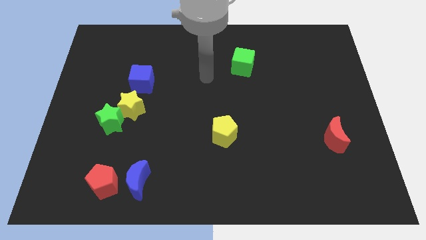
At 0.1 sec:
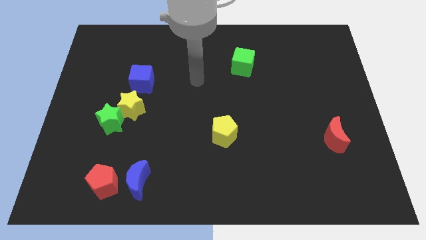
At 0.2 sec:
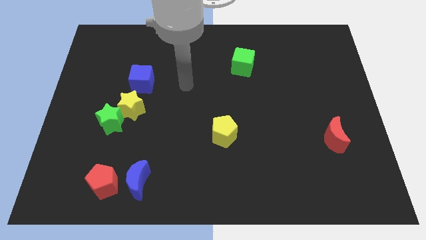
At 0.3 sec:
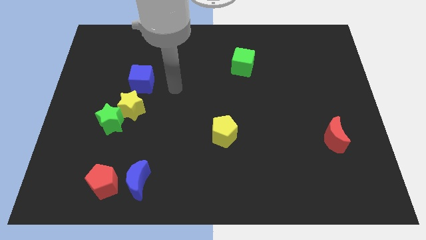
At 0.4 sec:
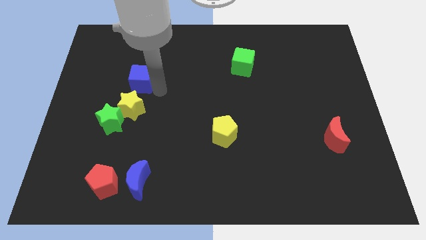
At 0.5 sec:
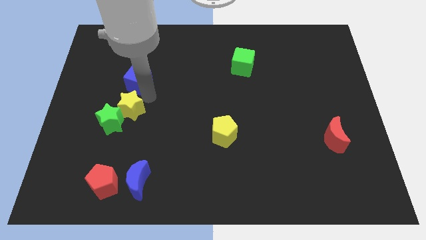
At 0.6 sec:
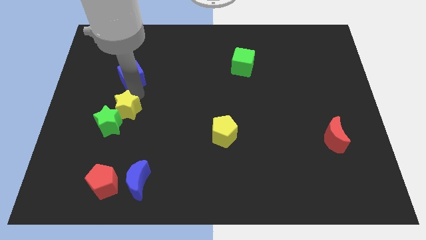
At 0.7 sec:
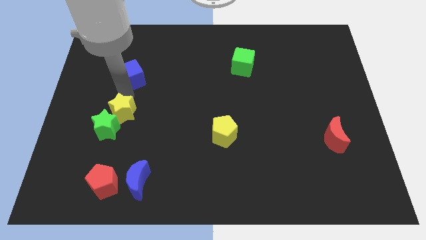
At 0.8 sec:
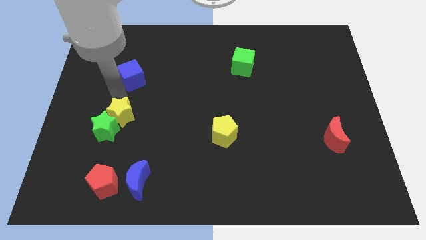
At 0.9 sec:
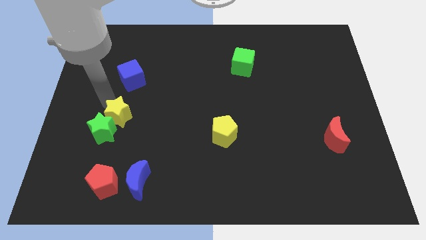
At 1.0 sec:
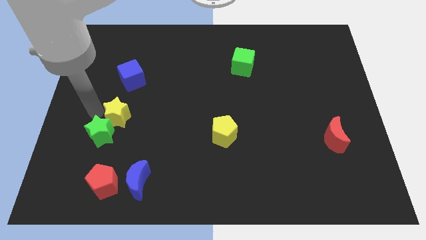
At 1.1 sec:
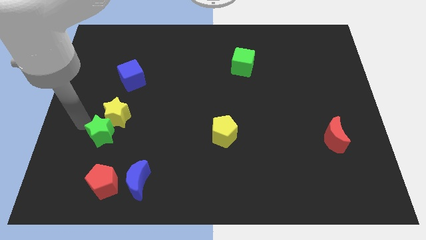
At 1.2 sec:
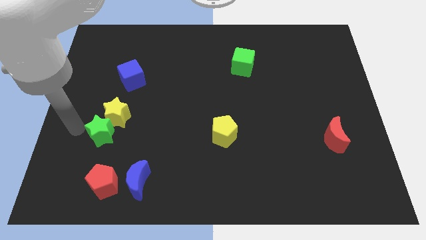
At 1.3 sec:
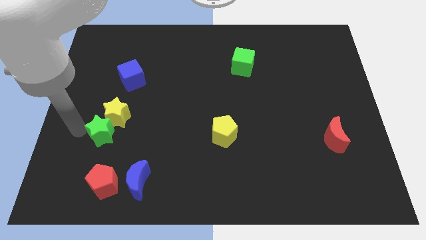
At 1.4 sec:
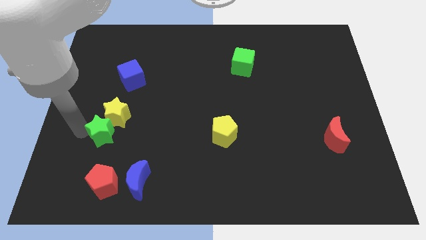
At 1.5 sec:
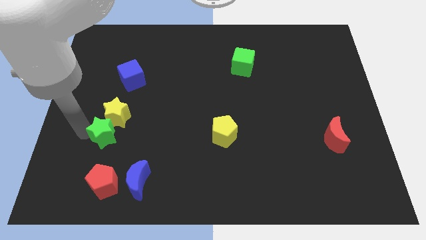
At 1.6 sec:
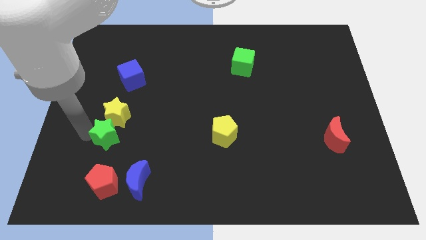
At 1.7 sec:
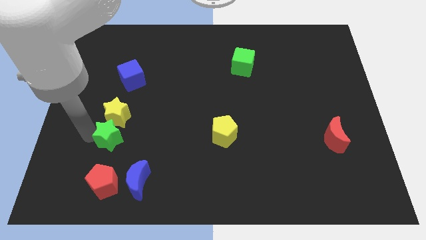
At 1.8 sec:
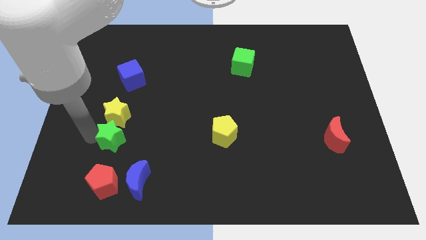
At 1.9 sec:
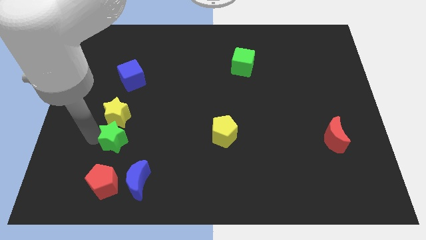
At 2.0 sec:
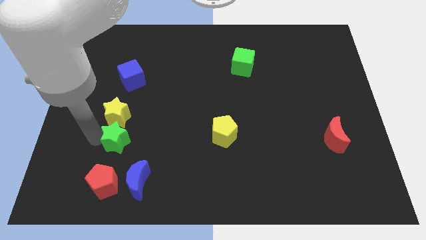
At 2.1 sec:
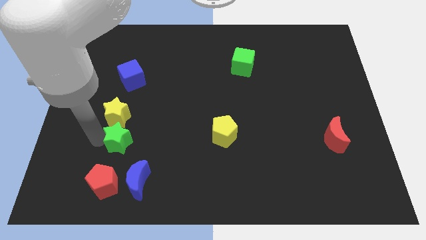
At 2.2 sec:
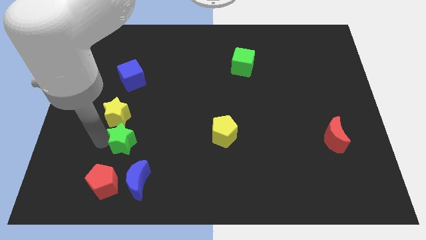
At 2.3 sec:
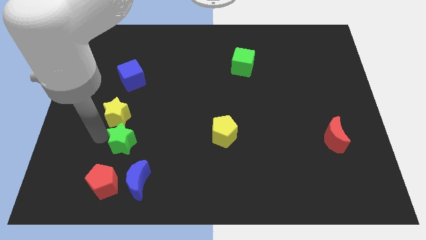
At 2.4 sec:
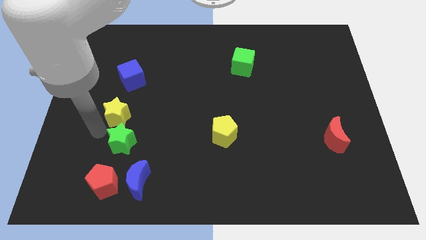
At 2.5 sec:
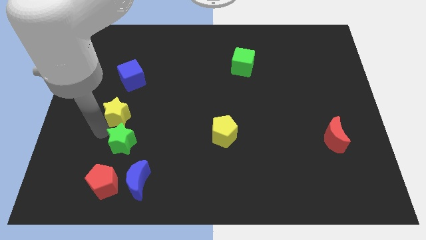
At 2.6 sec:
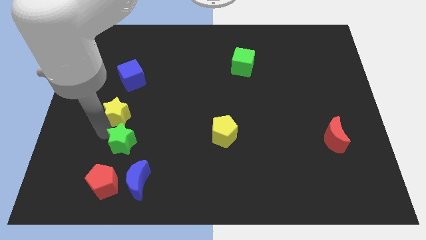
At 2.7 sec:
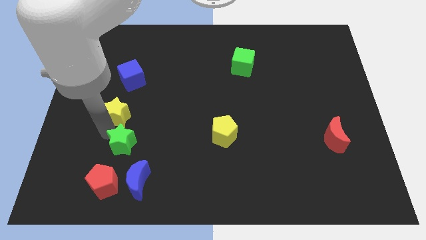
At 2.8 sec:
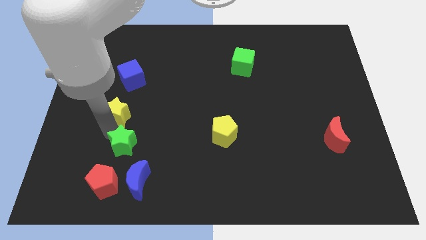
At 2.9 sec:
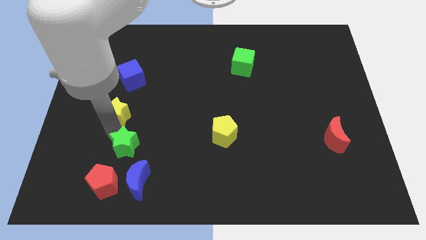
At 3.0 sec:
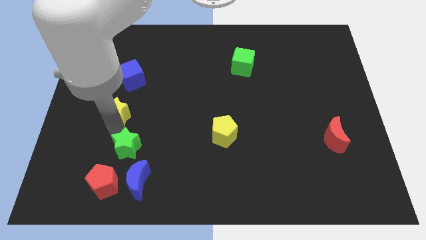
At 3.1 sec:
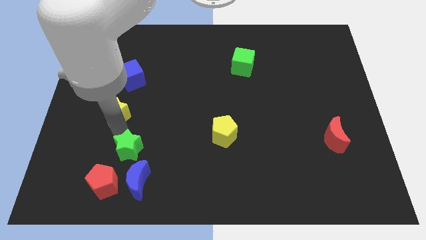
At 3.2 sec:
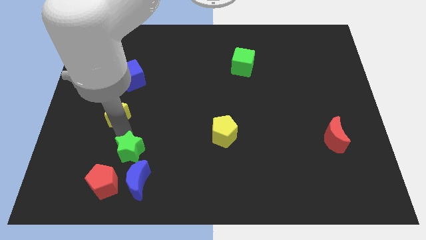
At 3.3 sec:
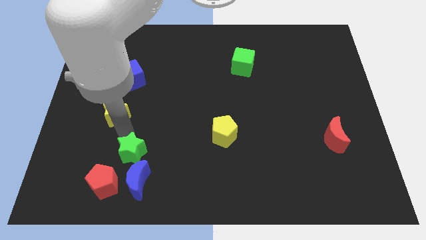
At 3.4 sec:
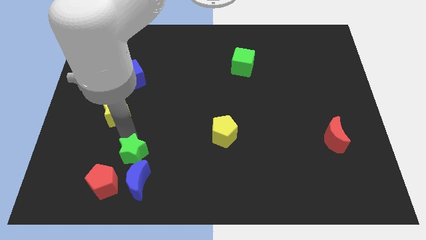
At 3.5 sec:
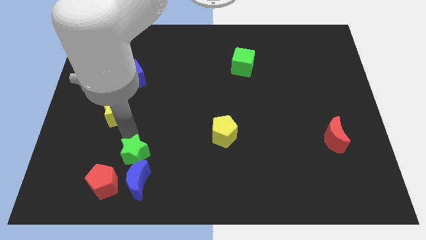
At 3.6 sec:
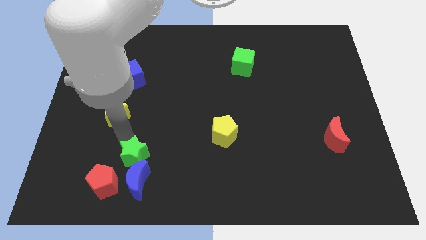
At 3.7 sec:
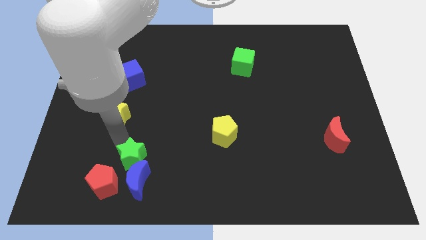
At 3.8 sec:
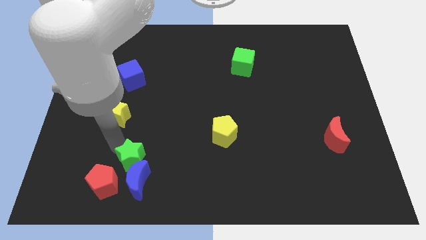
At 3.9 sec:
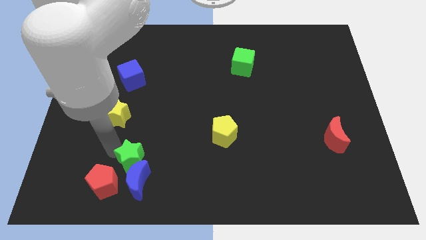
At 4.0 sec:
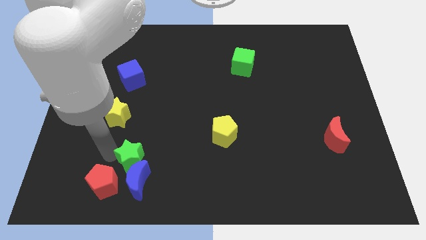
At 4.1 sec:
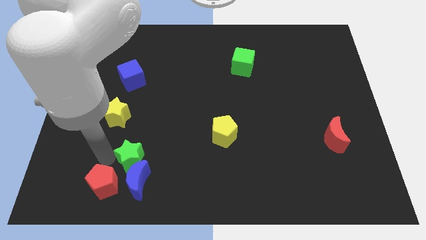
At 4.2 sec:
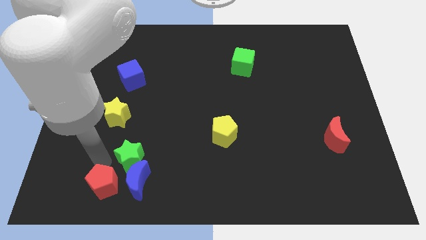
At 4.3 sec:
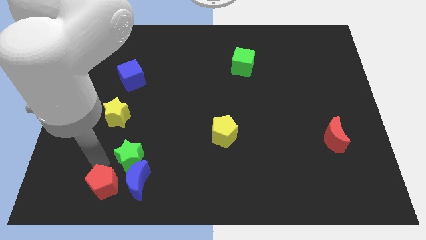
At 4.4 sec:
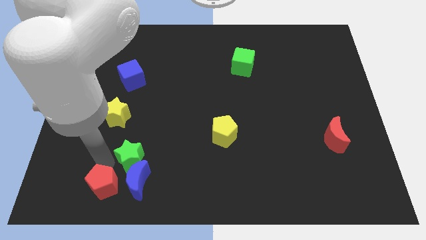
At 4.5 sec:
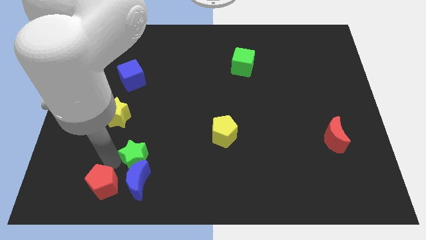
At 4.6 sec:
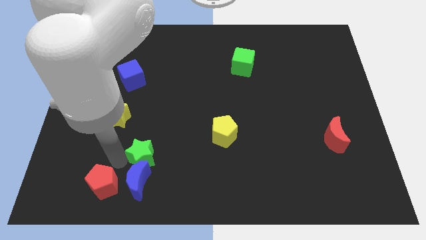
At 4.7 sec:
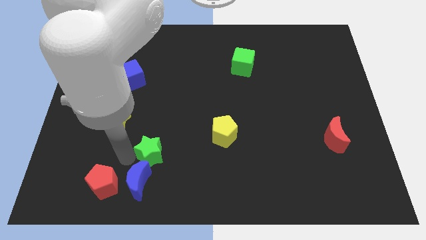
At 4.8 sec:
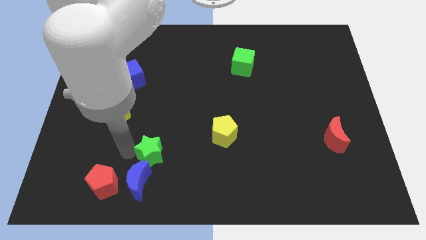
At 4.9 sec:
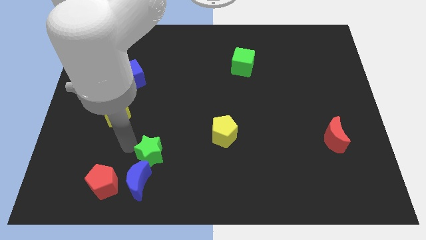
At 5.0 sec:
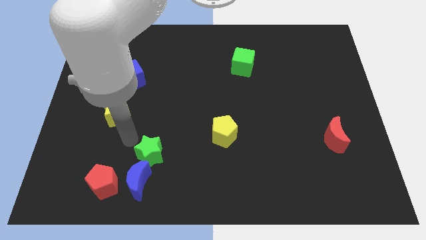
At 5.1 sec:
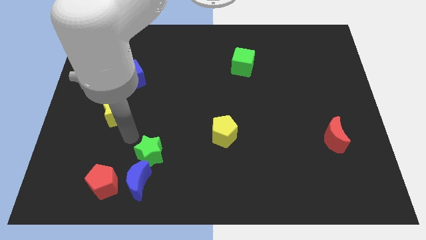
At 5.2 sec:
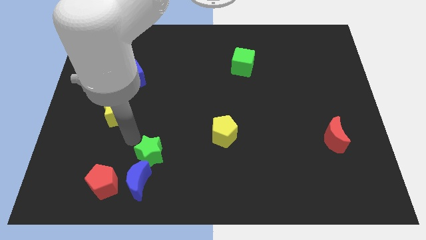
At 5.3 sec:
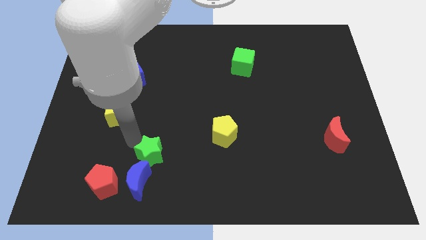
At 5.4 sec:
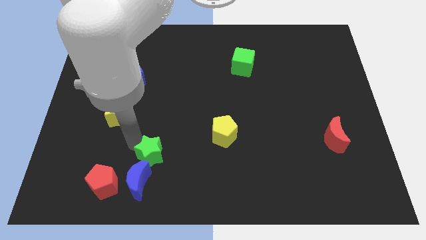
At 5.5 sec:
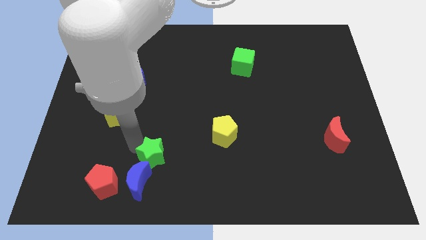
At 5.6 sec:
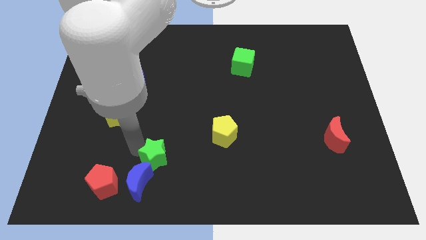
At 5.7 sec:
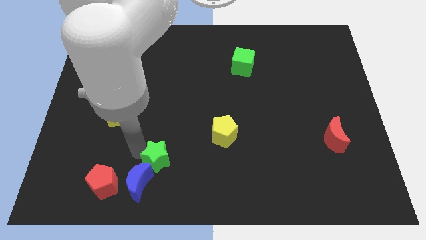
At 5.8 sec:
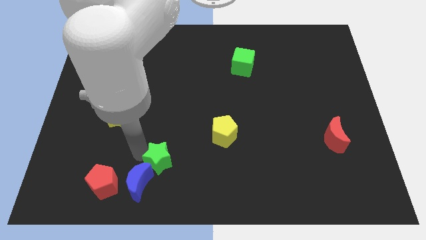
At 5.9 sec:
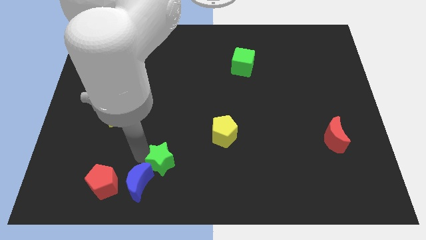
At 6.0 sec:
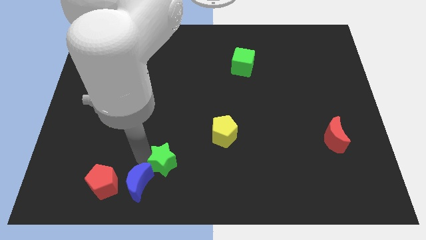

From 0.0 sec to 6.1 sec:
put the green star to the right of the blue moon

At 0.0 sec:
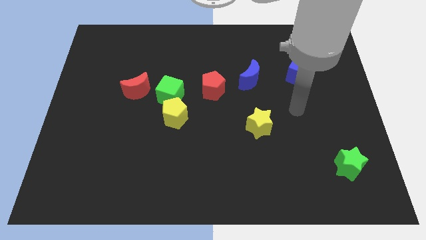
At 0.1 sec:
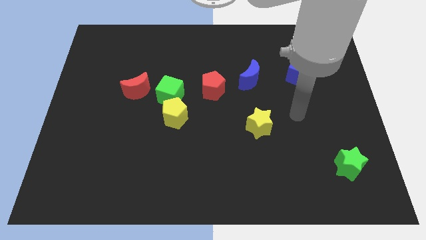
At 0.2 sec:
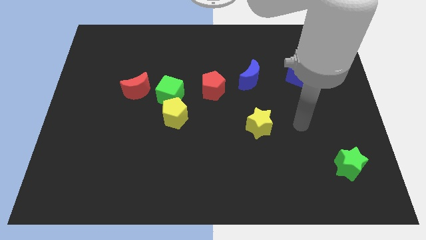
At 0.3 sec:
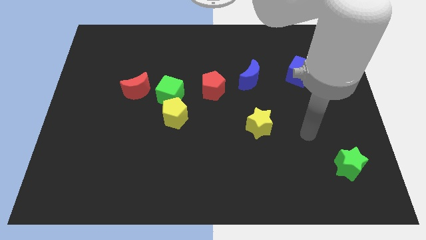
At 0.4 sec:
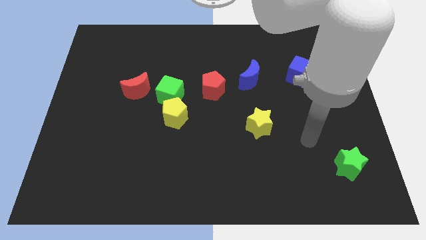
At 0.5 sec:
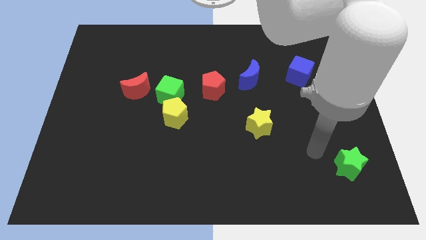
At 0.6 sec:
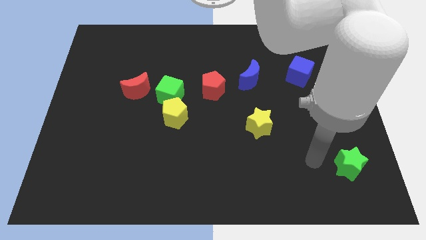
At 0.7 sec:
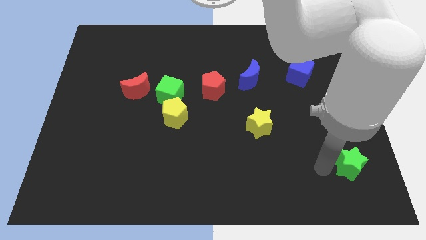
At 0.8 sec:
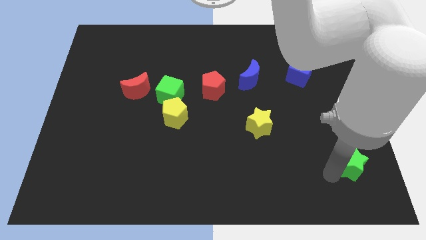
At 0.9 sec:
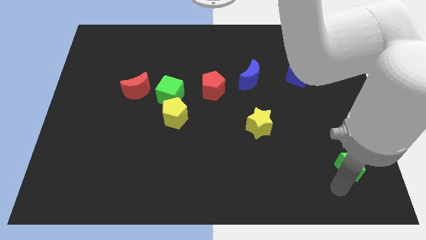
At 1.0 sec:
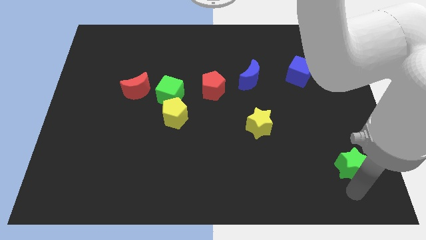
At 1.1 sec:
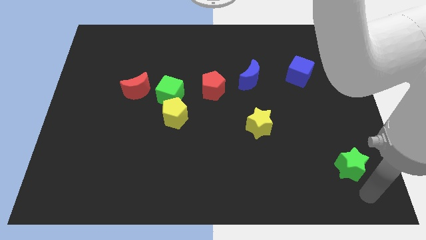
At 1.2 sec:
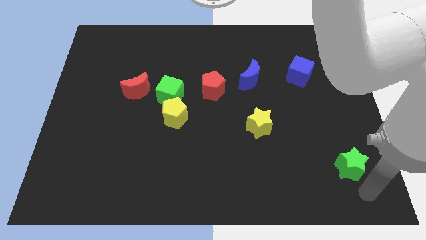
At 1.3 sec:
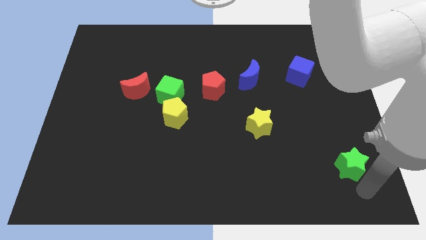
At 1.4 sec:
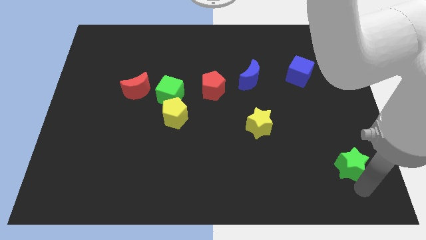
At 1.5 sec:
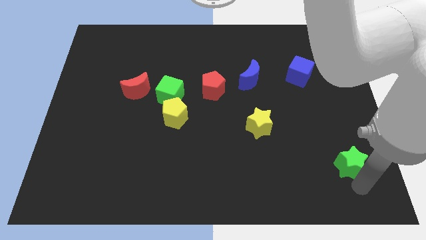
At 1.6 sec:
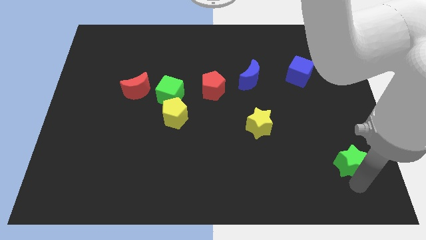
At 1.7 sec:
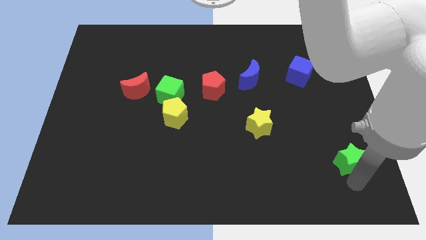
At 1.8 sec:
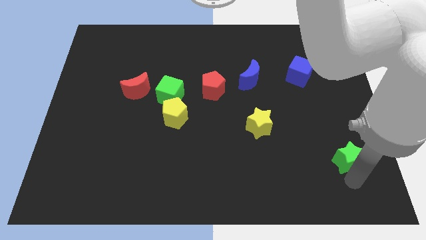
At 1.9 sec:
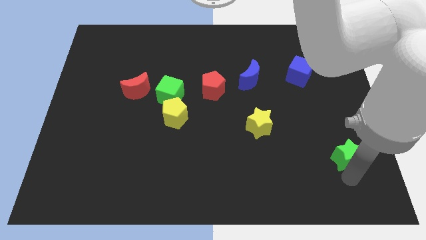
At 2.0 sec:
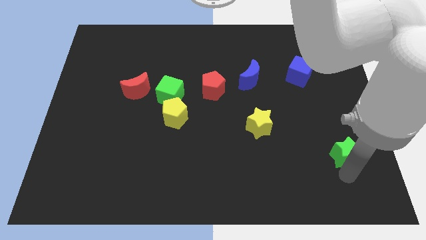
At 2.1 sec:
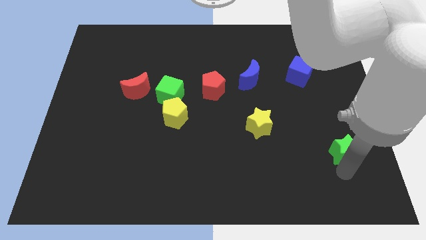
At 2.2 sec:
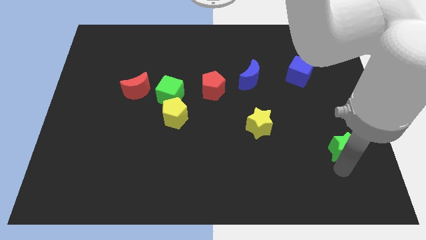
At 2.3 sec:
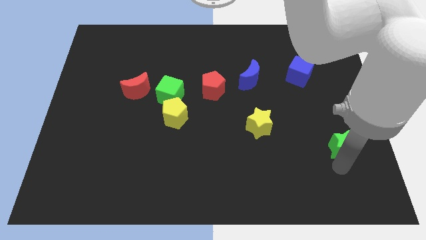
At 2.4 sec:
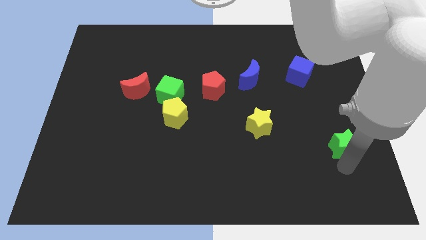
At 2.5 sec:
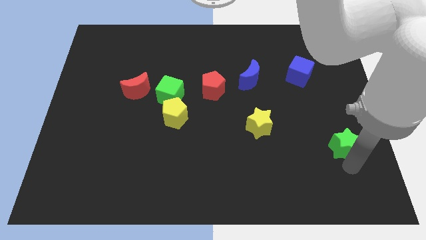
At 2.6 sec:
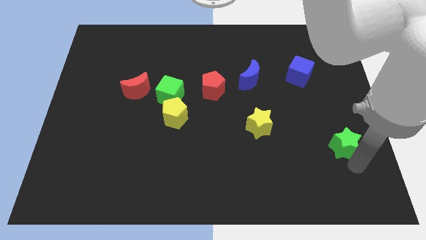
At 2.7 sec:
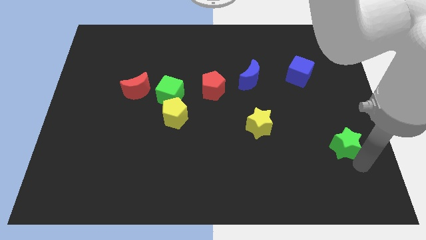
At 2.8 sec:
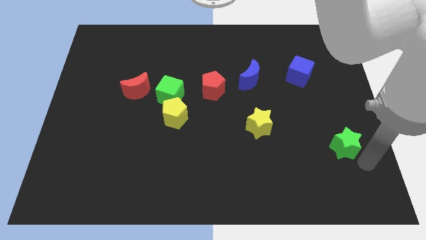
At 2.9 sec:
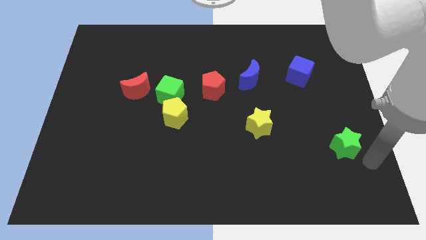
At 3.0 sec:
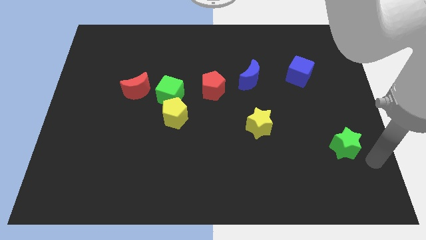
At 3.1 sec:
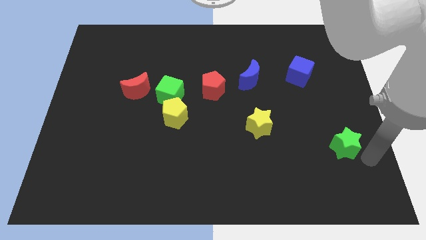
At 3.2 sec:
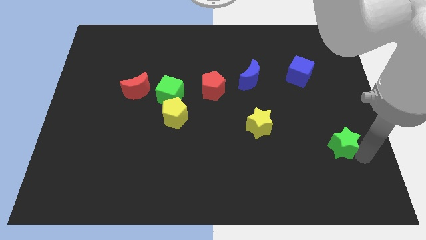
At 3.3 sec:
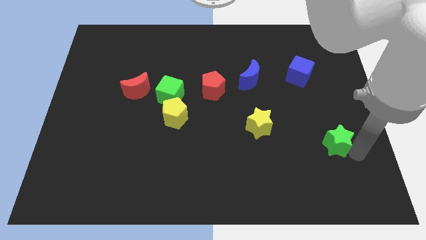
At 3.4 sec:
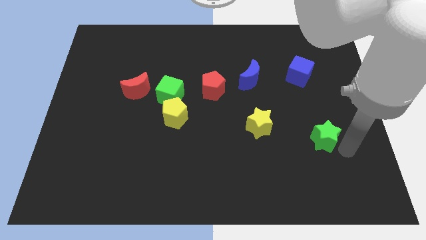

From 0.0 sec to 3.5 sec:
slide the green star to the right side of the yellow star
